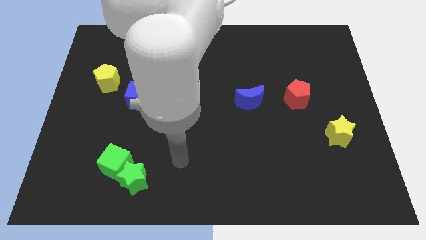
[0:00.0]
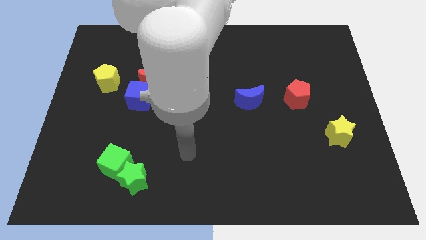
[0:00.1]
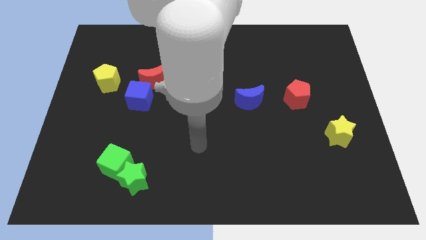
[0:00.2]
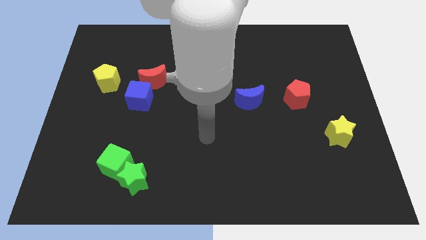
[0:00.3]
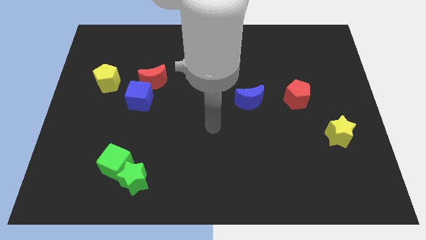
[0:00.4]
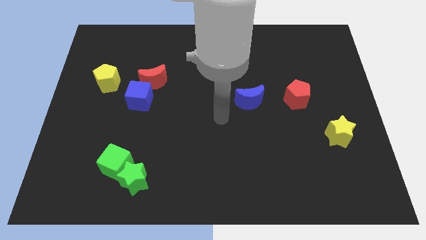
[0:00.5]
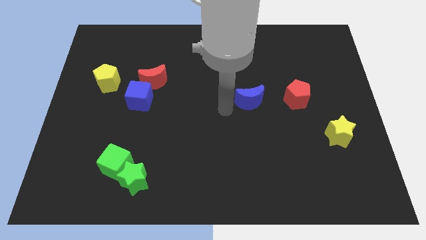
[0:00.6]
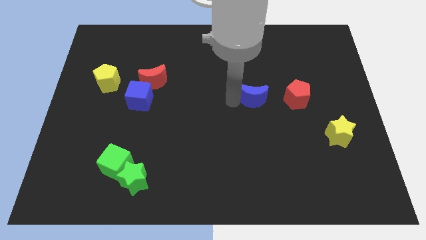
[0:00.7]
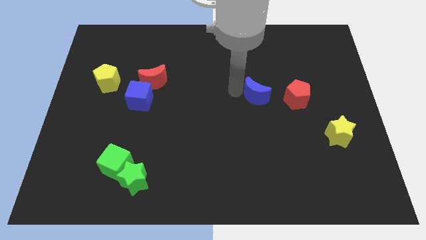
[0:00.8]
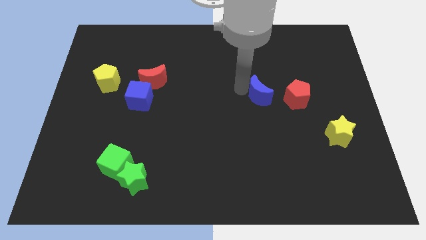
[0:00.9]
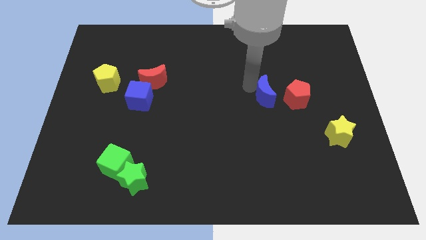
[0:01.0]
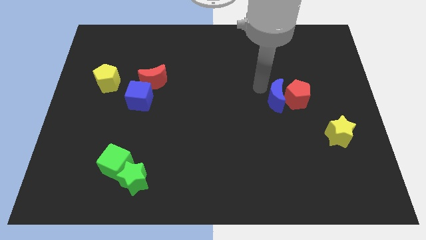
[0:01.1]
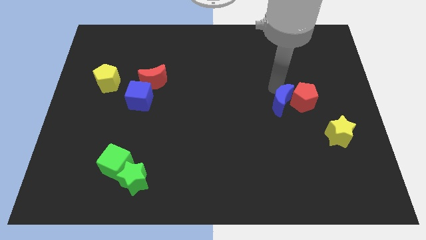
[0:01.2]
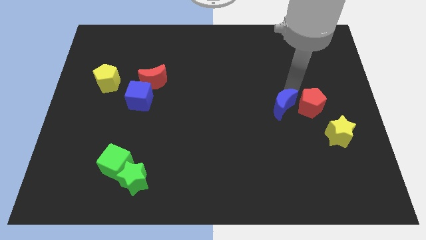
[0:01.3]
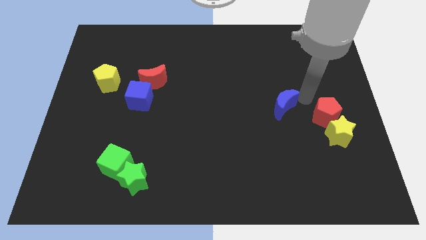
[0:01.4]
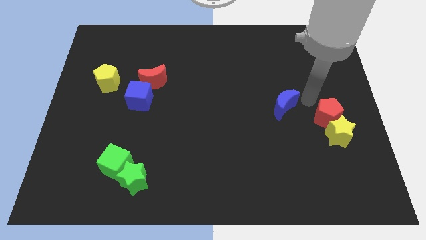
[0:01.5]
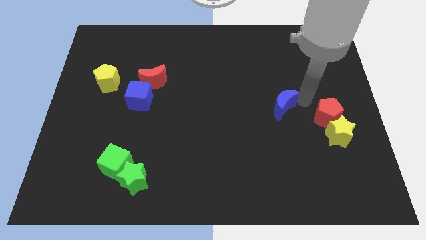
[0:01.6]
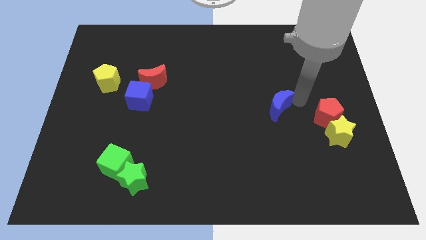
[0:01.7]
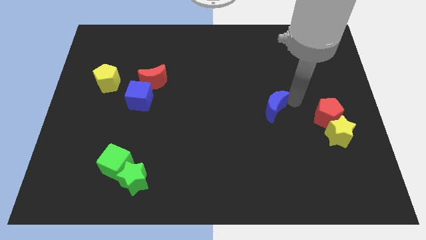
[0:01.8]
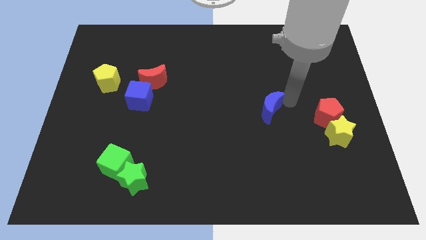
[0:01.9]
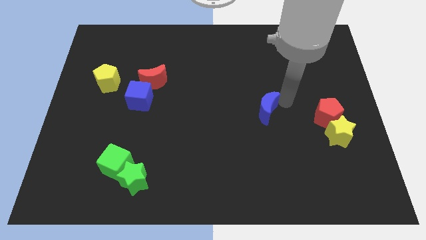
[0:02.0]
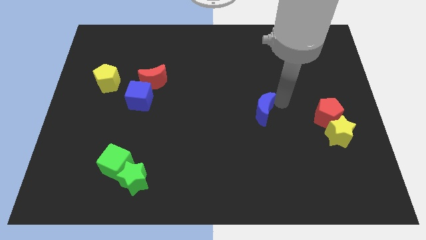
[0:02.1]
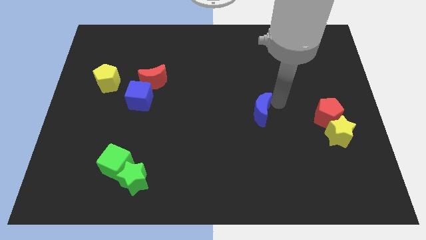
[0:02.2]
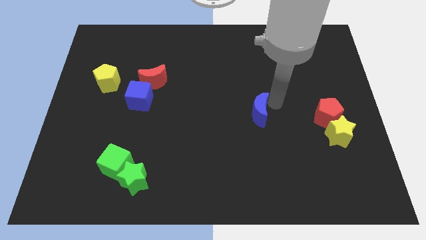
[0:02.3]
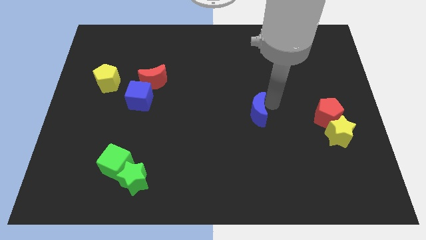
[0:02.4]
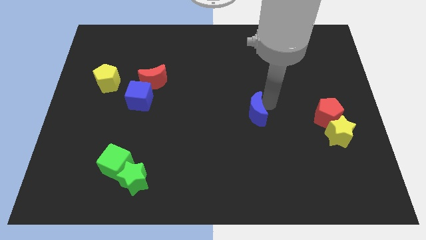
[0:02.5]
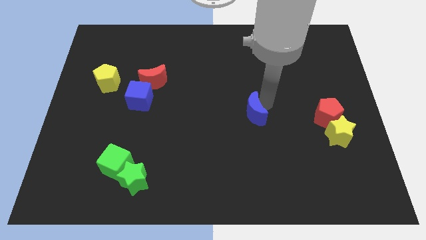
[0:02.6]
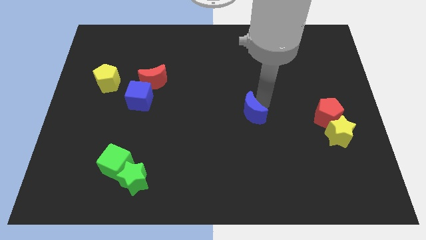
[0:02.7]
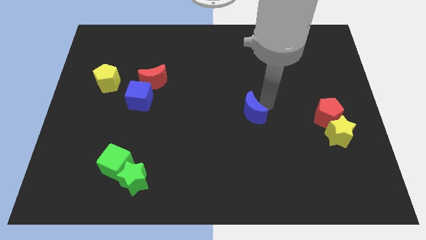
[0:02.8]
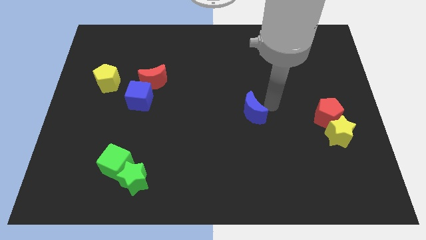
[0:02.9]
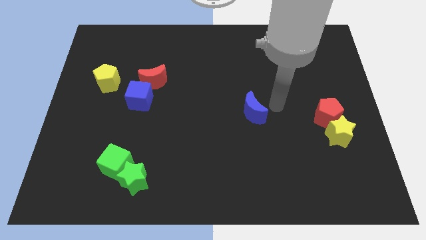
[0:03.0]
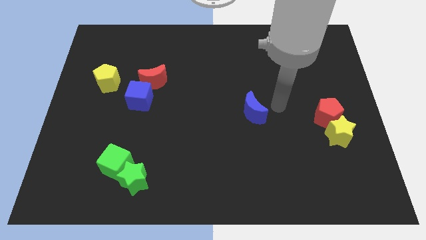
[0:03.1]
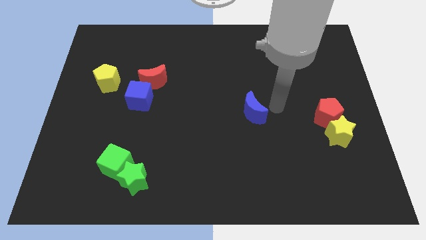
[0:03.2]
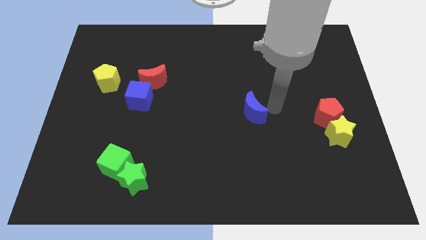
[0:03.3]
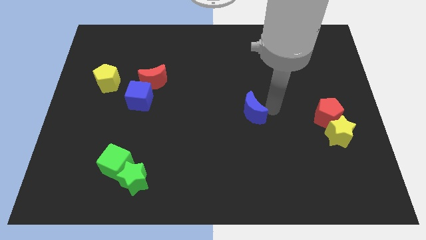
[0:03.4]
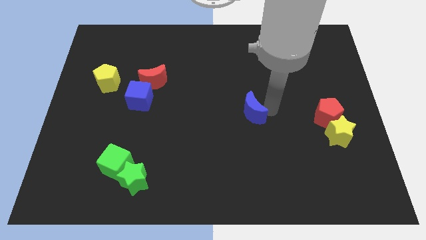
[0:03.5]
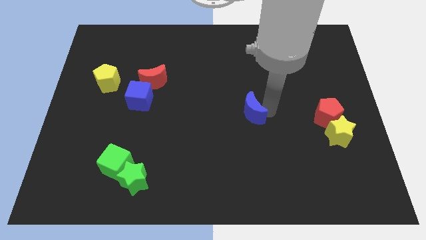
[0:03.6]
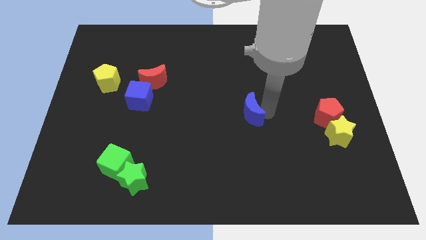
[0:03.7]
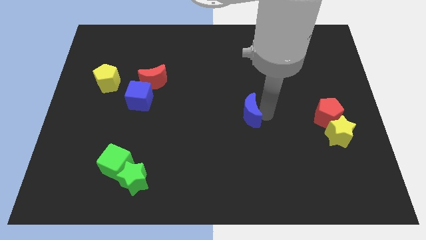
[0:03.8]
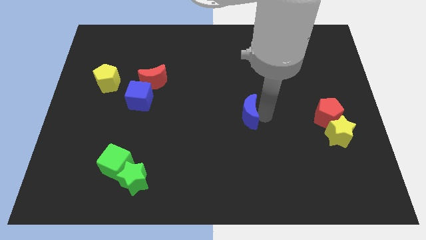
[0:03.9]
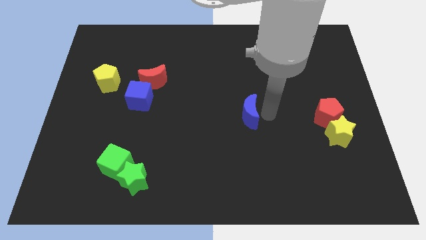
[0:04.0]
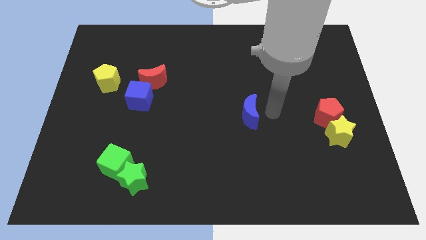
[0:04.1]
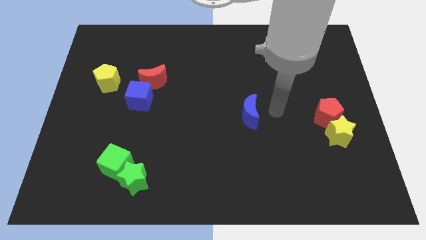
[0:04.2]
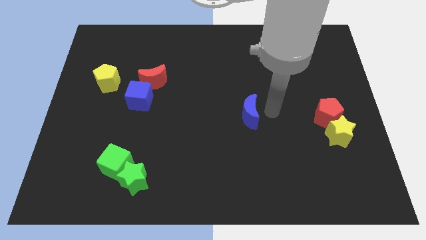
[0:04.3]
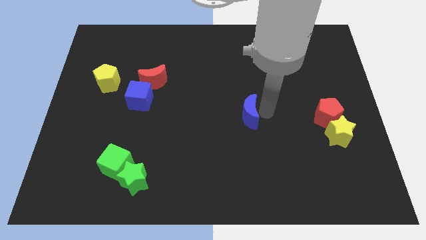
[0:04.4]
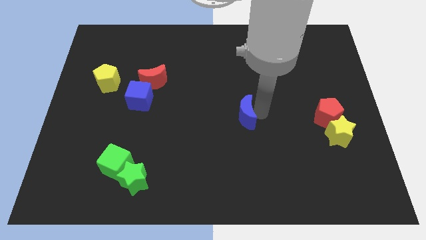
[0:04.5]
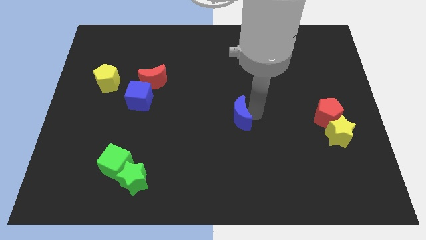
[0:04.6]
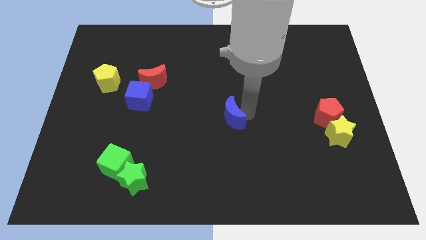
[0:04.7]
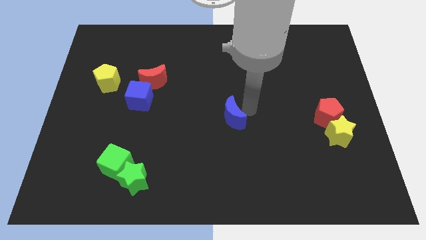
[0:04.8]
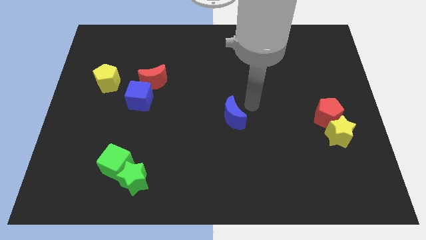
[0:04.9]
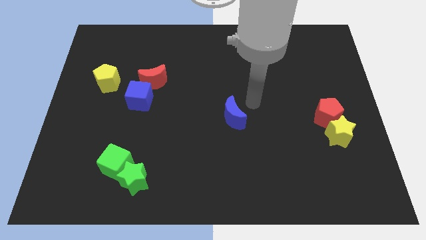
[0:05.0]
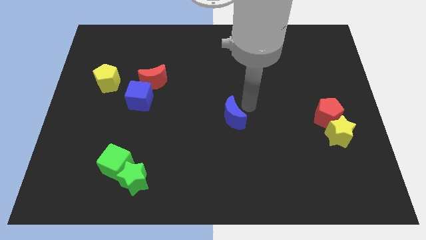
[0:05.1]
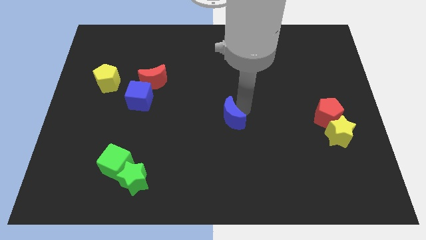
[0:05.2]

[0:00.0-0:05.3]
push the blue moon diagonally down and to the left a little bit

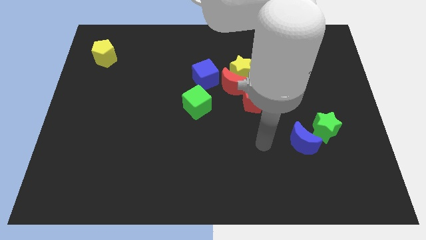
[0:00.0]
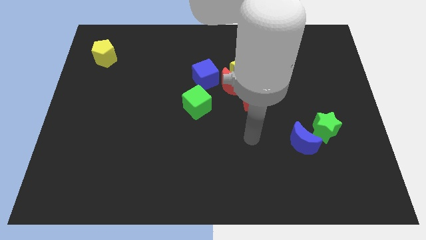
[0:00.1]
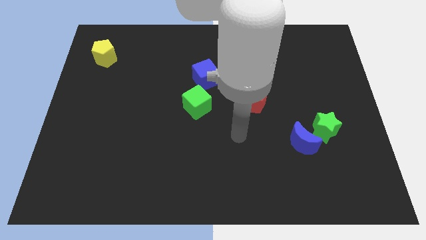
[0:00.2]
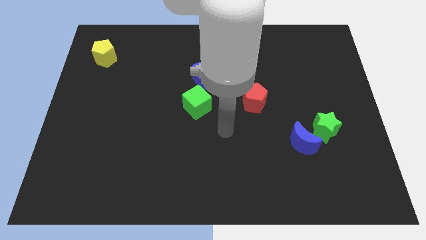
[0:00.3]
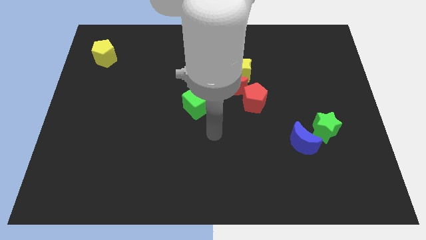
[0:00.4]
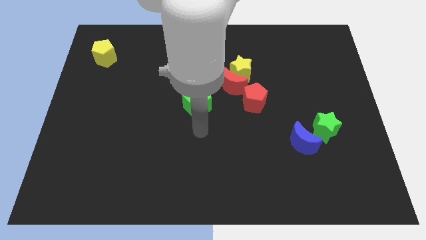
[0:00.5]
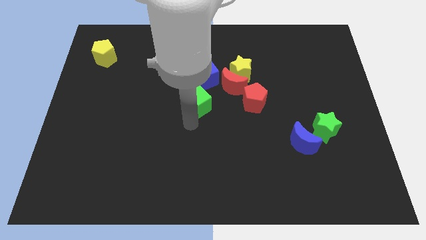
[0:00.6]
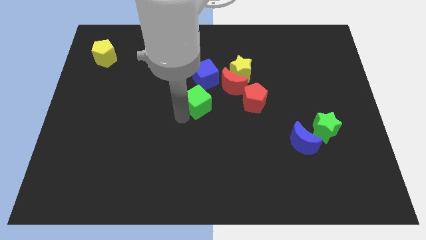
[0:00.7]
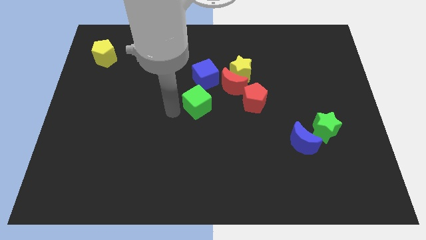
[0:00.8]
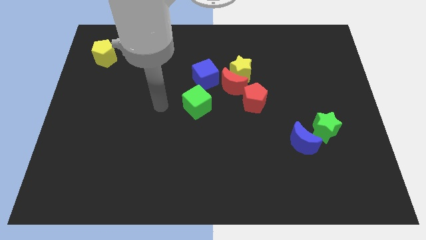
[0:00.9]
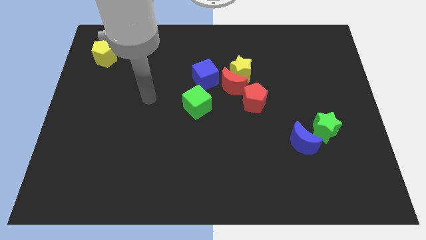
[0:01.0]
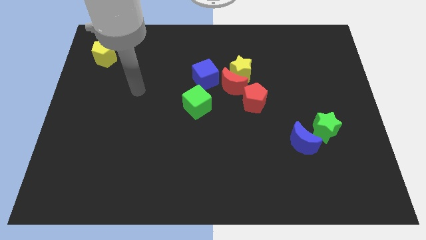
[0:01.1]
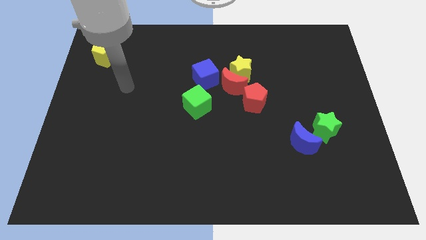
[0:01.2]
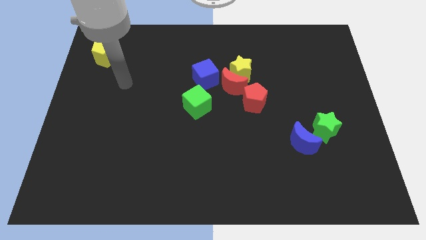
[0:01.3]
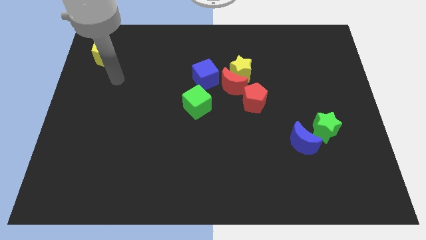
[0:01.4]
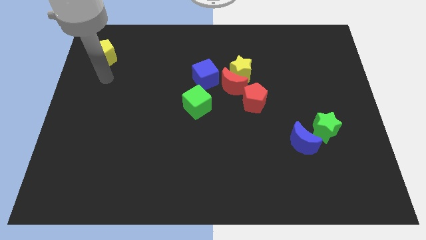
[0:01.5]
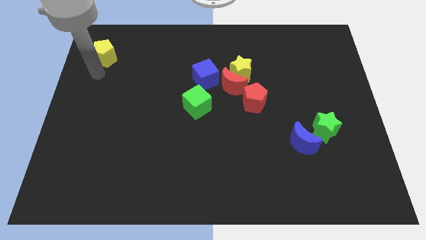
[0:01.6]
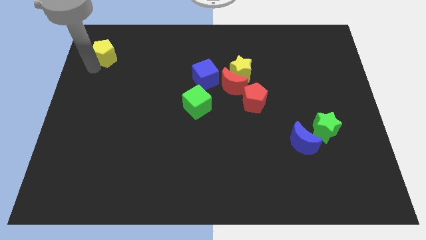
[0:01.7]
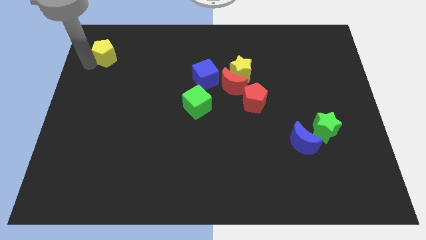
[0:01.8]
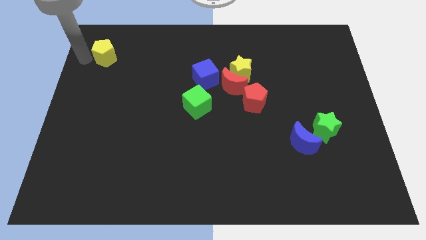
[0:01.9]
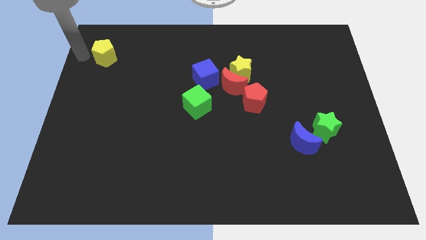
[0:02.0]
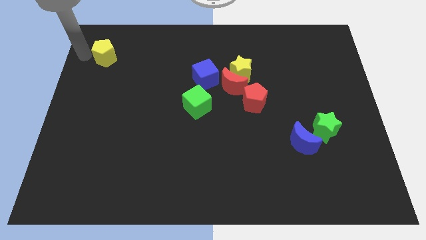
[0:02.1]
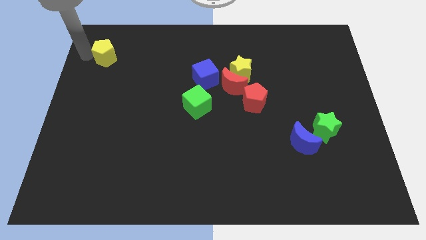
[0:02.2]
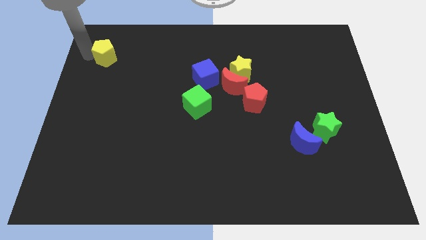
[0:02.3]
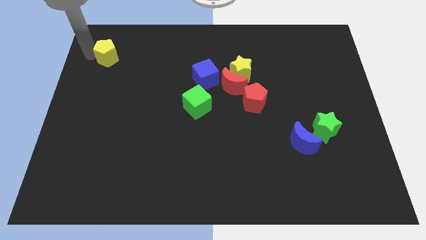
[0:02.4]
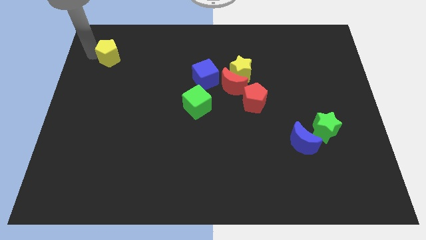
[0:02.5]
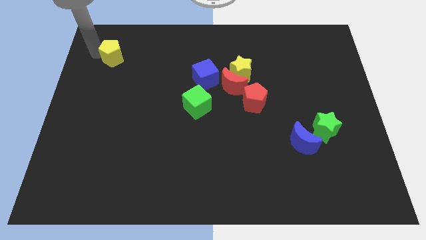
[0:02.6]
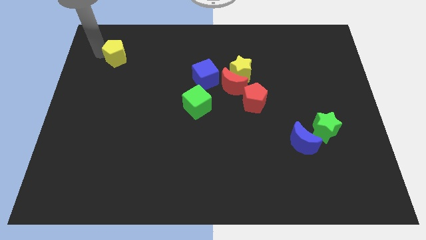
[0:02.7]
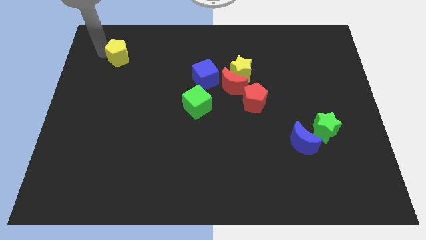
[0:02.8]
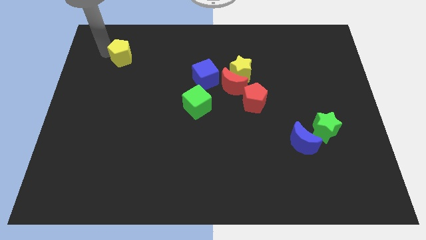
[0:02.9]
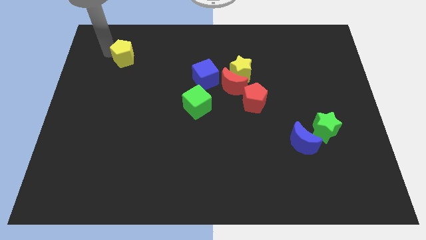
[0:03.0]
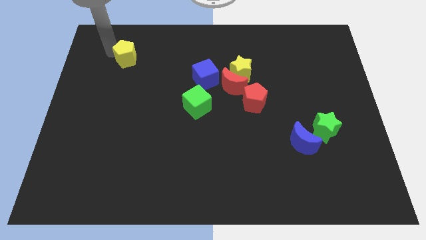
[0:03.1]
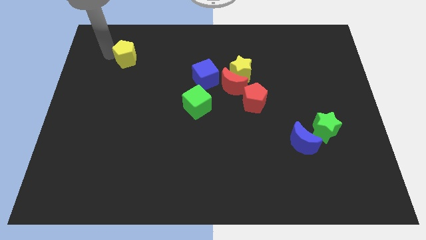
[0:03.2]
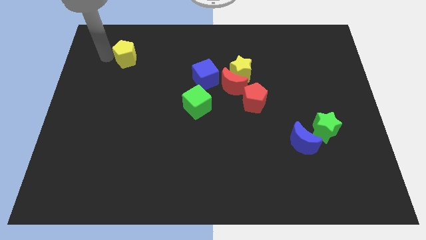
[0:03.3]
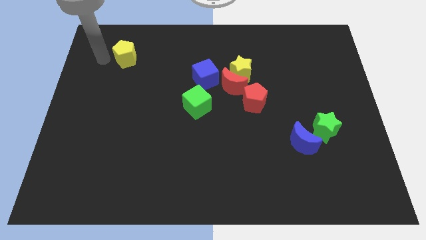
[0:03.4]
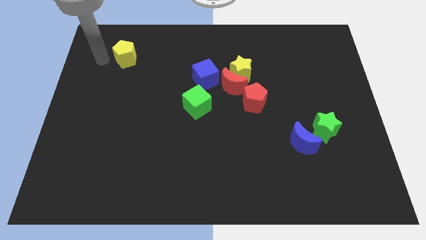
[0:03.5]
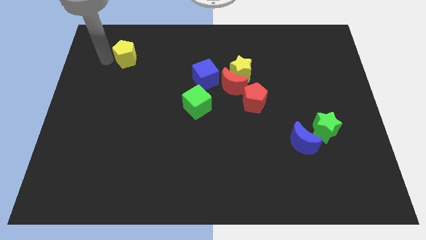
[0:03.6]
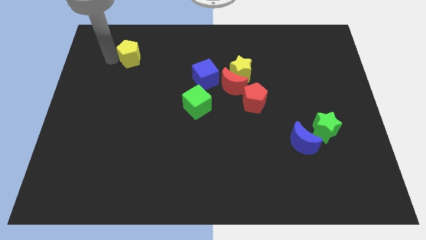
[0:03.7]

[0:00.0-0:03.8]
push the yellow pentagon right a little bit
